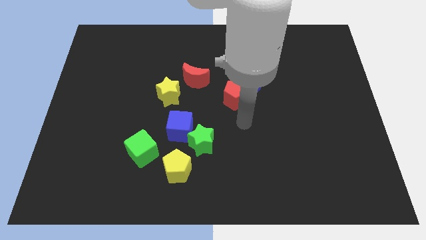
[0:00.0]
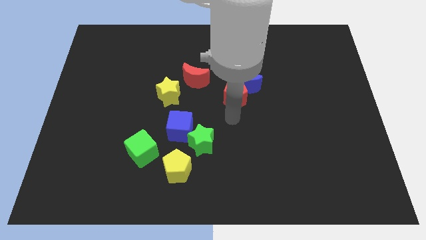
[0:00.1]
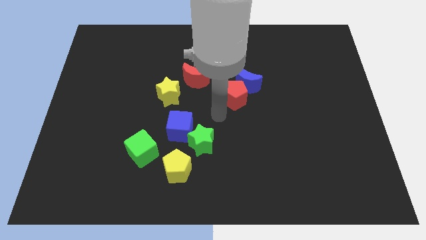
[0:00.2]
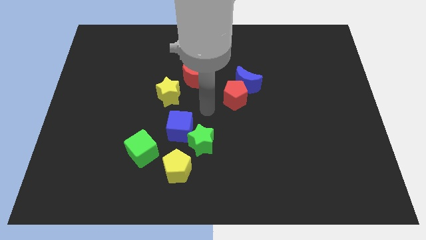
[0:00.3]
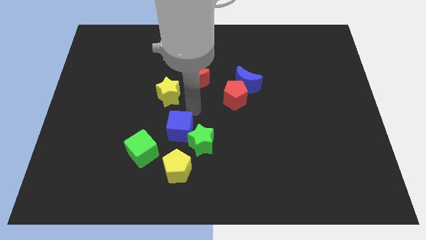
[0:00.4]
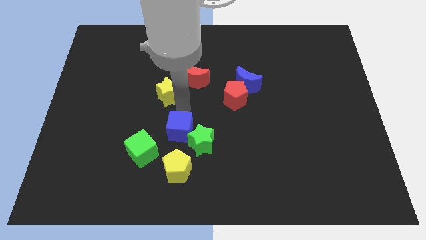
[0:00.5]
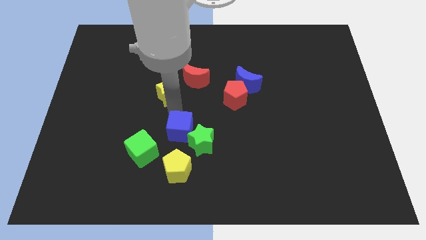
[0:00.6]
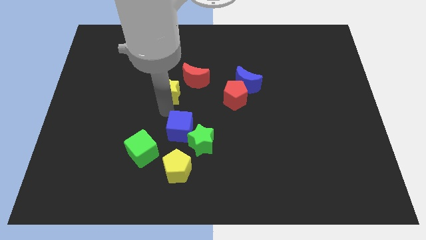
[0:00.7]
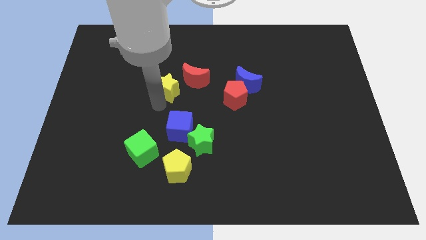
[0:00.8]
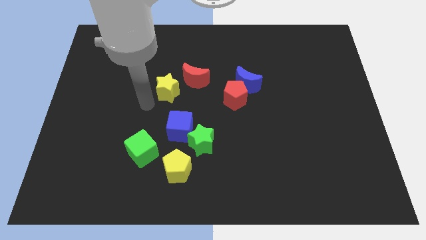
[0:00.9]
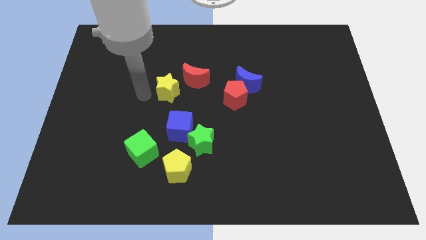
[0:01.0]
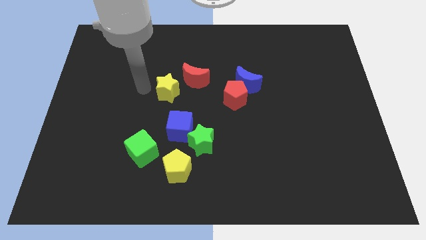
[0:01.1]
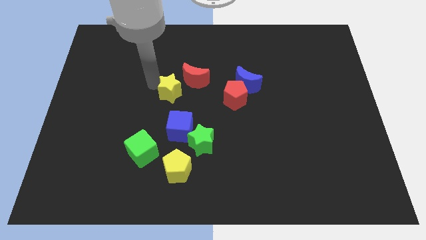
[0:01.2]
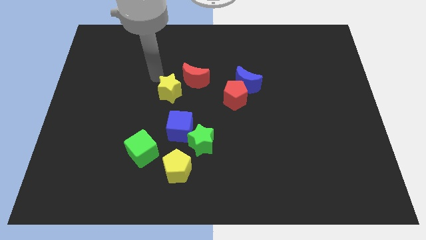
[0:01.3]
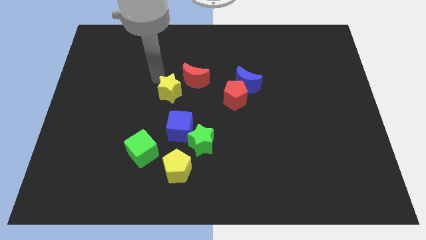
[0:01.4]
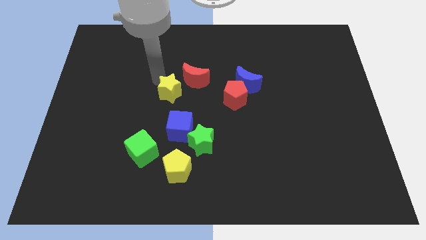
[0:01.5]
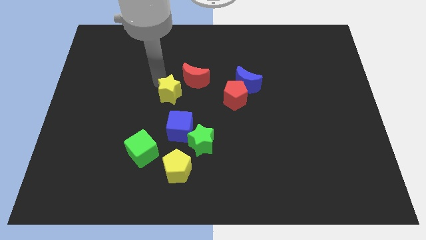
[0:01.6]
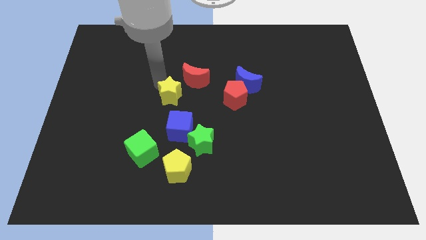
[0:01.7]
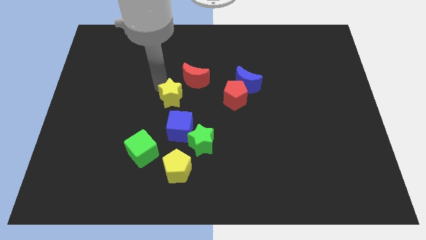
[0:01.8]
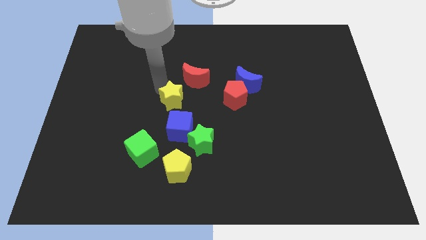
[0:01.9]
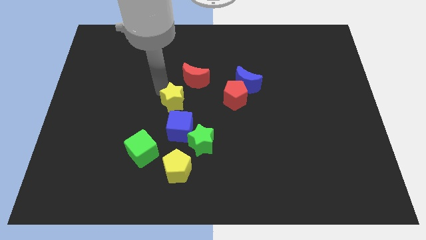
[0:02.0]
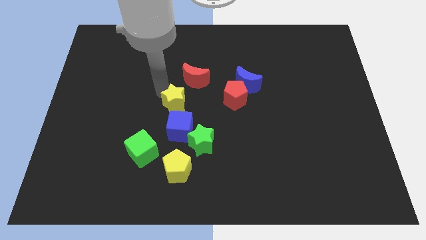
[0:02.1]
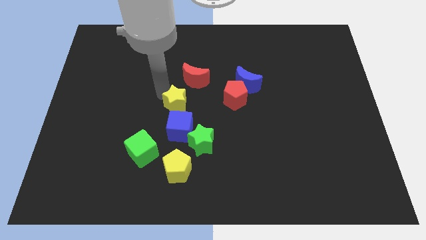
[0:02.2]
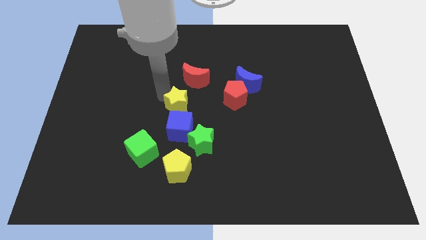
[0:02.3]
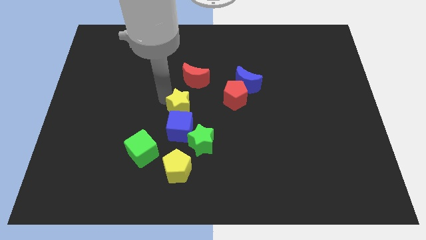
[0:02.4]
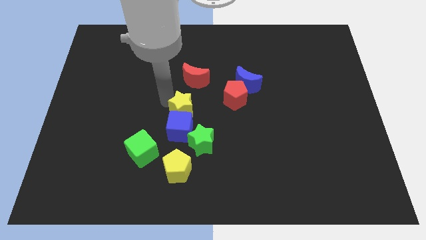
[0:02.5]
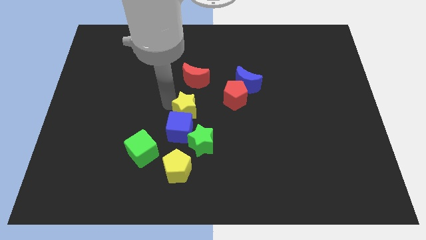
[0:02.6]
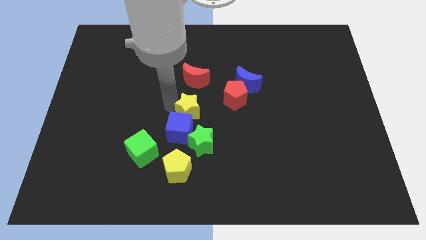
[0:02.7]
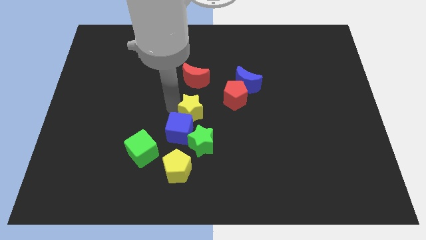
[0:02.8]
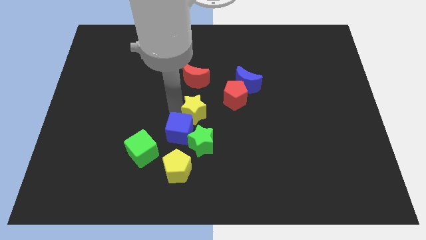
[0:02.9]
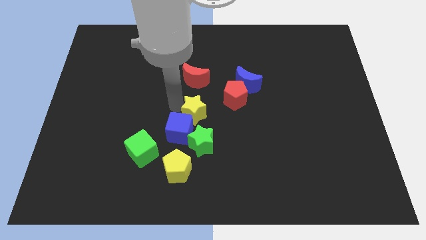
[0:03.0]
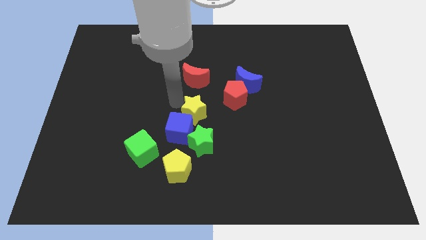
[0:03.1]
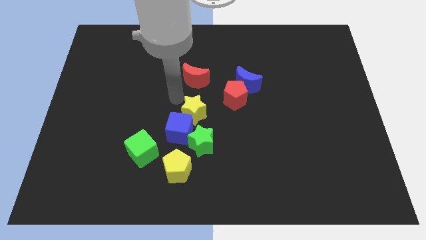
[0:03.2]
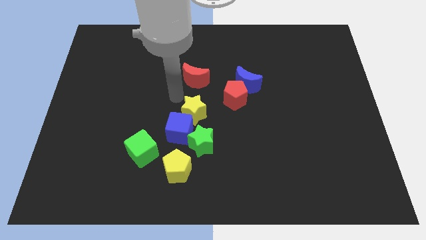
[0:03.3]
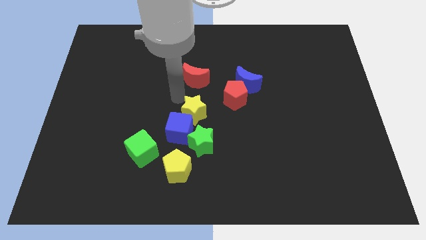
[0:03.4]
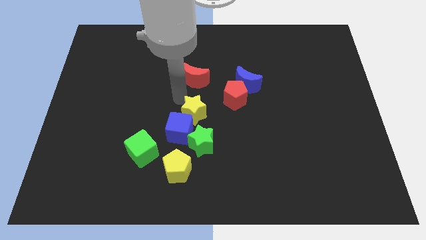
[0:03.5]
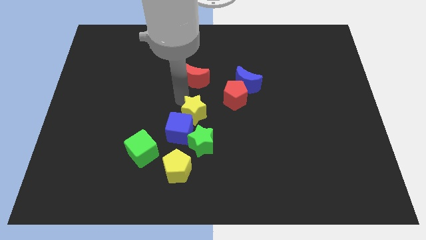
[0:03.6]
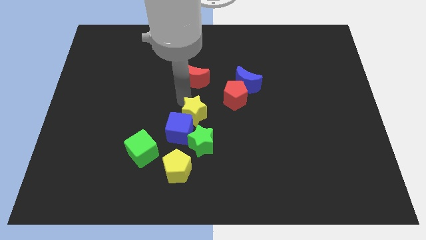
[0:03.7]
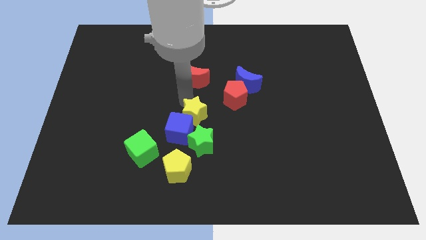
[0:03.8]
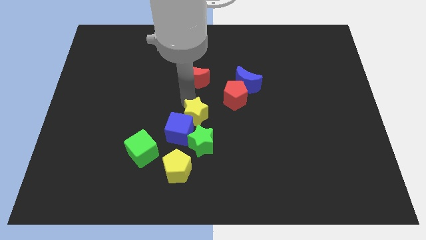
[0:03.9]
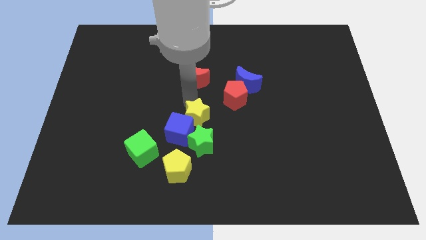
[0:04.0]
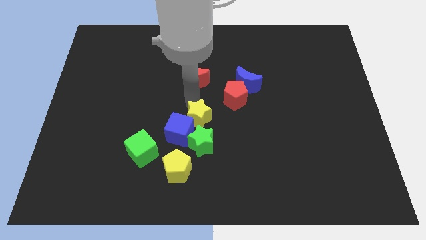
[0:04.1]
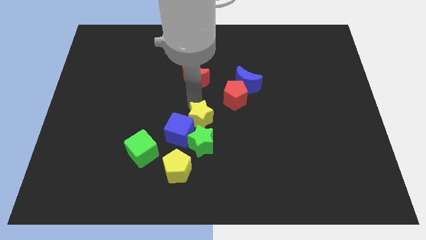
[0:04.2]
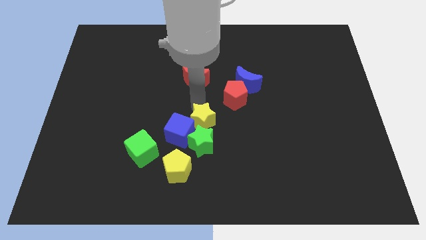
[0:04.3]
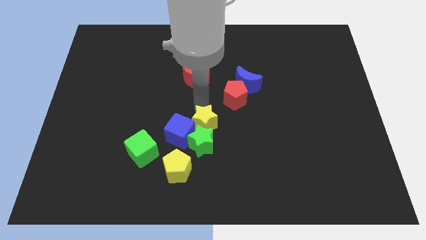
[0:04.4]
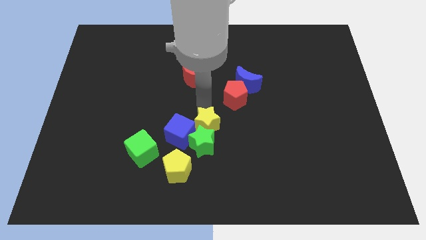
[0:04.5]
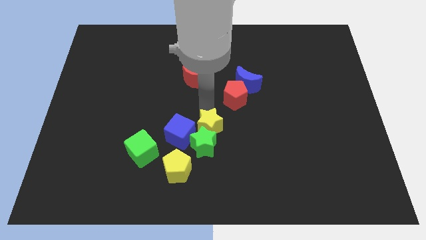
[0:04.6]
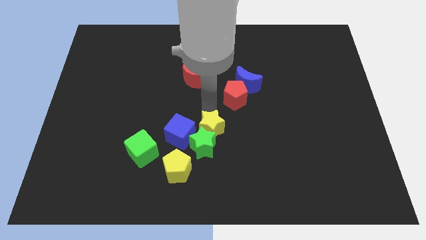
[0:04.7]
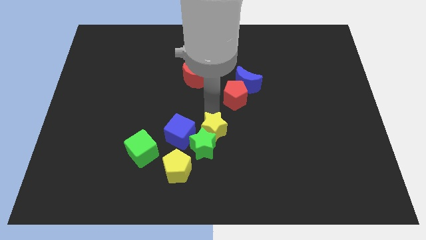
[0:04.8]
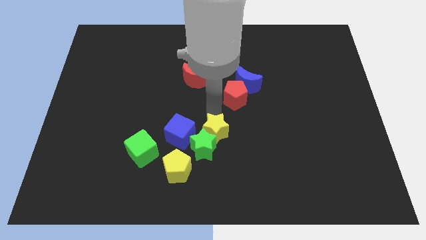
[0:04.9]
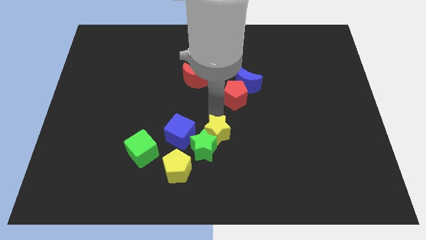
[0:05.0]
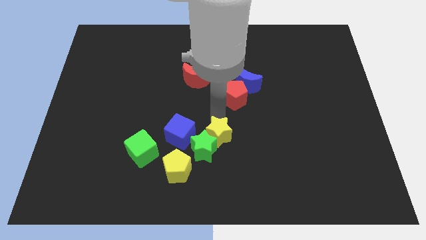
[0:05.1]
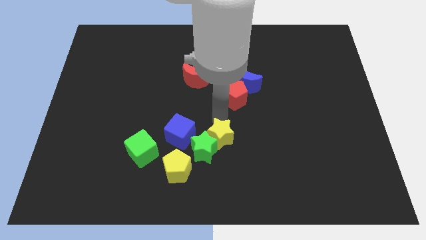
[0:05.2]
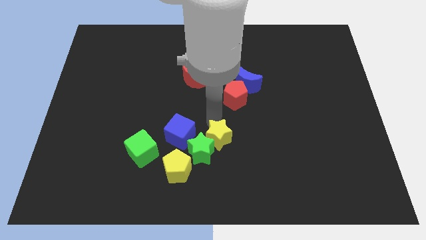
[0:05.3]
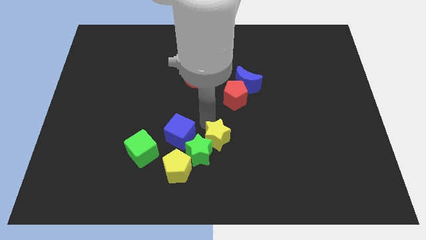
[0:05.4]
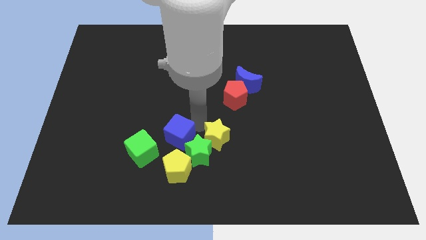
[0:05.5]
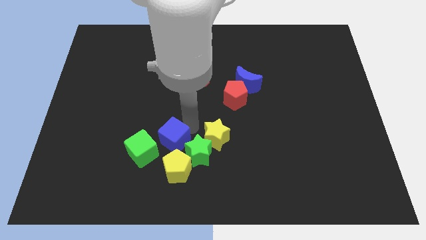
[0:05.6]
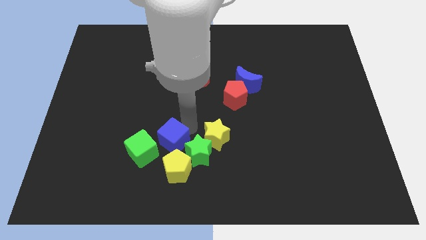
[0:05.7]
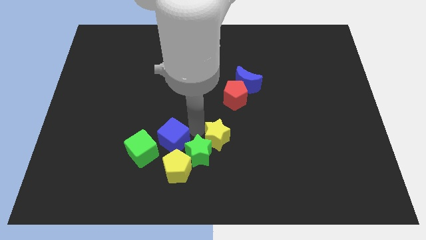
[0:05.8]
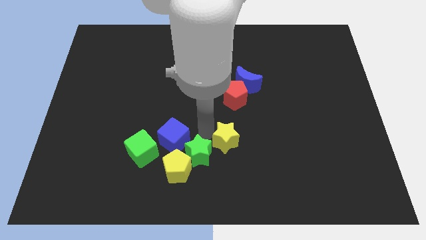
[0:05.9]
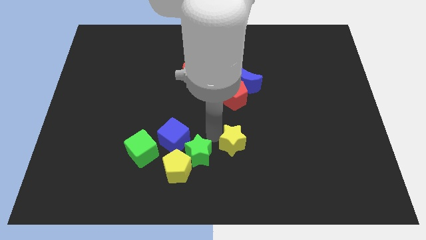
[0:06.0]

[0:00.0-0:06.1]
move the yellow star downwards and to the right

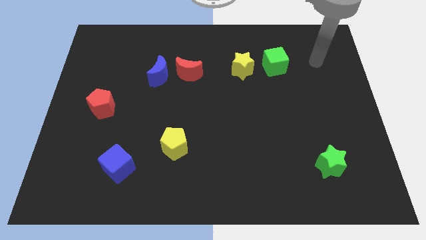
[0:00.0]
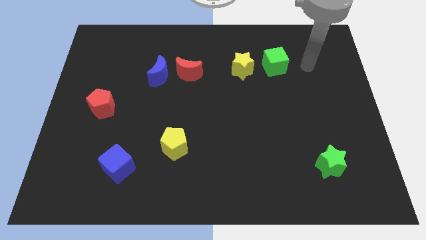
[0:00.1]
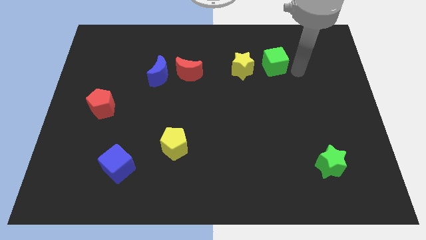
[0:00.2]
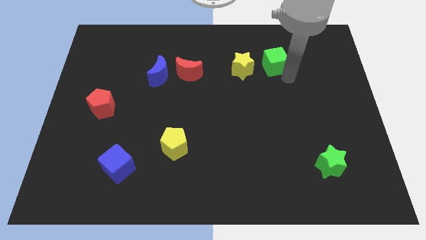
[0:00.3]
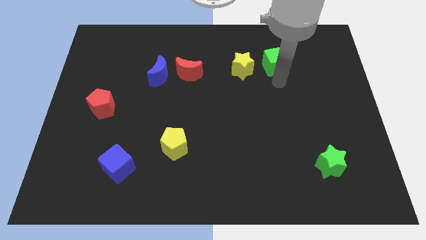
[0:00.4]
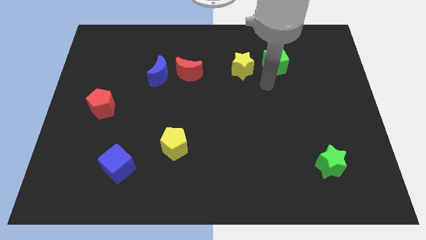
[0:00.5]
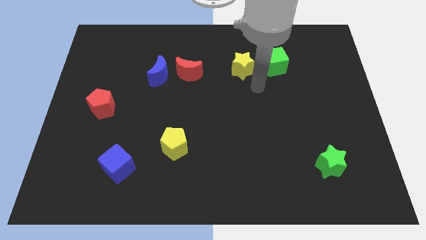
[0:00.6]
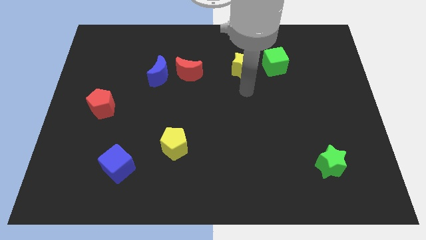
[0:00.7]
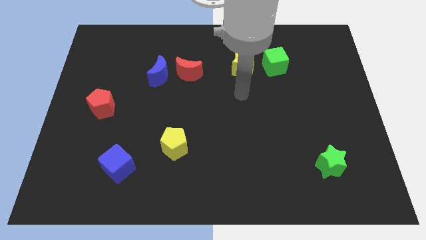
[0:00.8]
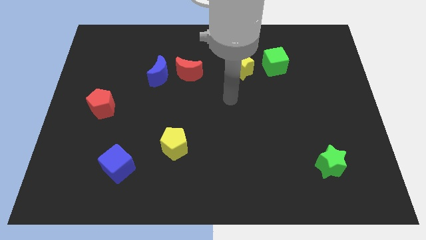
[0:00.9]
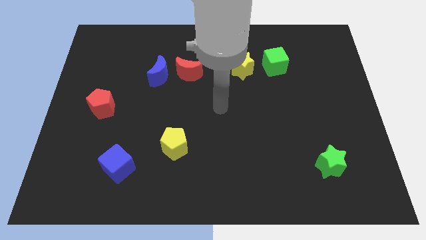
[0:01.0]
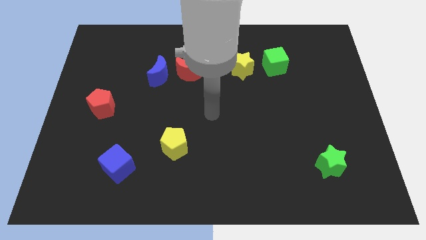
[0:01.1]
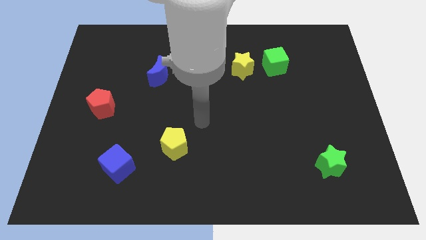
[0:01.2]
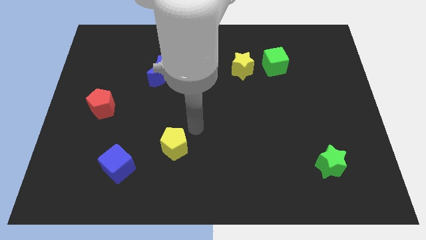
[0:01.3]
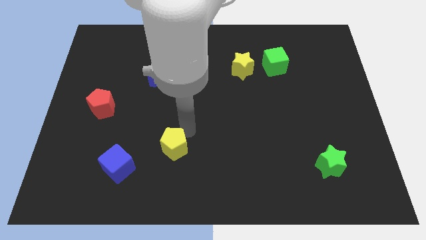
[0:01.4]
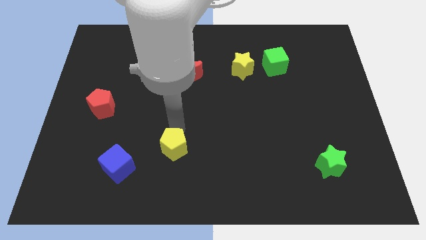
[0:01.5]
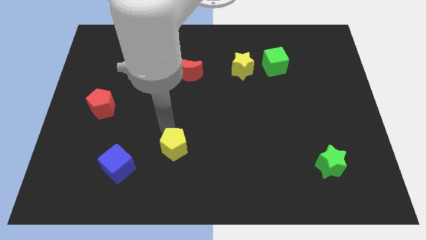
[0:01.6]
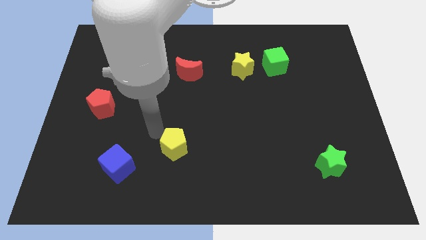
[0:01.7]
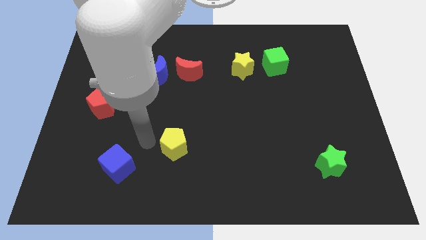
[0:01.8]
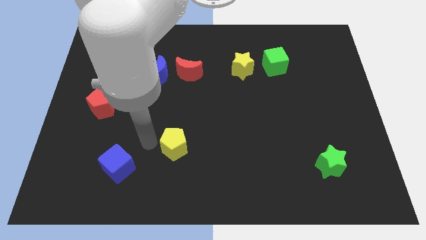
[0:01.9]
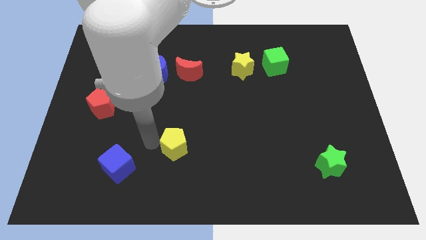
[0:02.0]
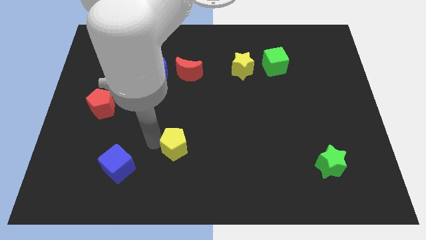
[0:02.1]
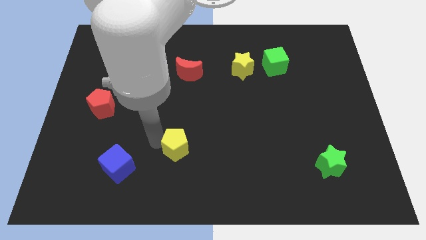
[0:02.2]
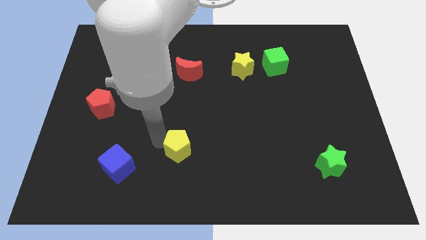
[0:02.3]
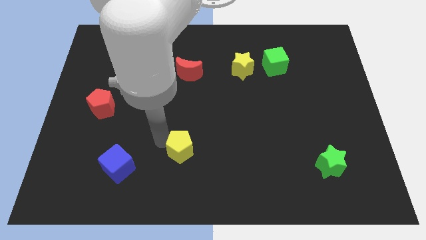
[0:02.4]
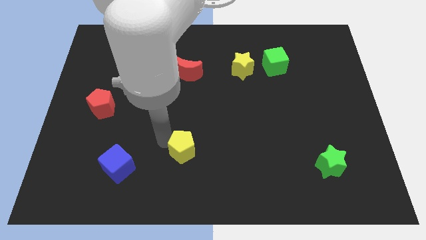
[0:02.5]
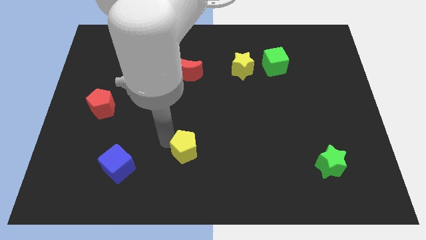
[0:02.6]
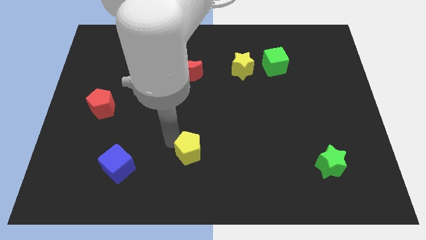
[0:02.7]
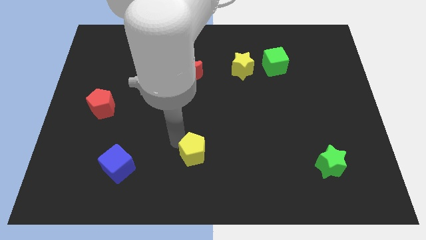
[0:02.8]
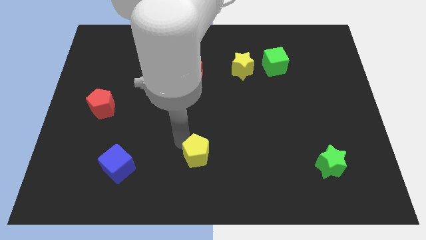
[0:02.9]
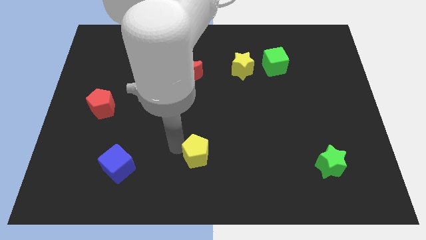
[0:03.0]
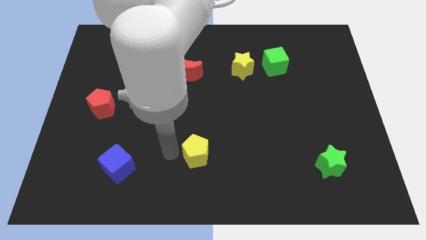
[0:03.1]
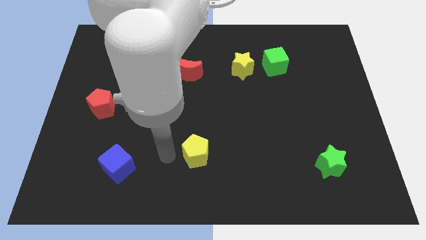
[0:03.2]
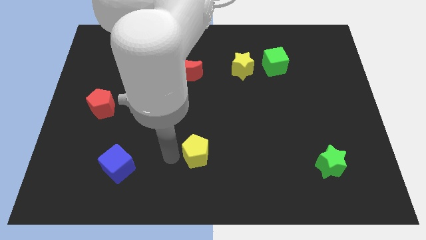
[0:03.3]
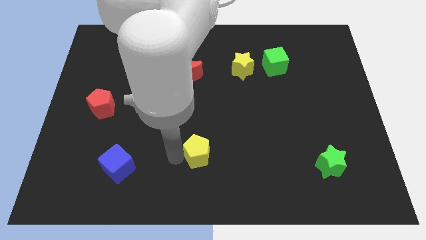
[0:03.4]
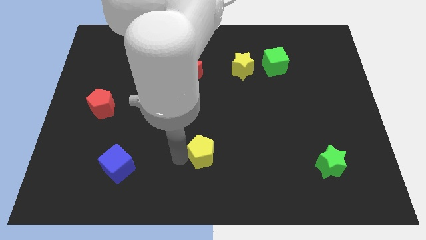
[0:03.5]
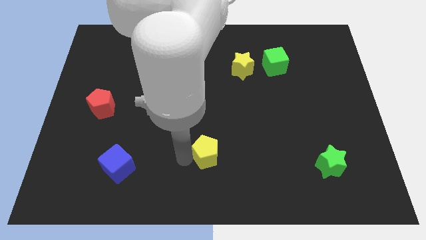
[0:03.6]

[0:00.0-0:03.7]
slide the yellow pentagon somewhat right
